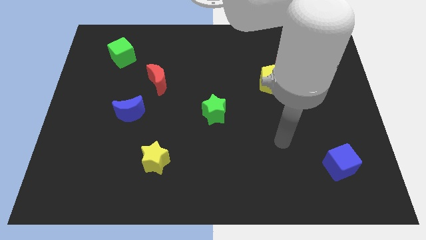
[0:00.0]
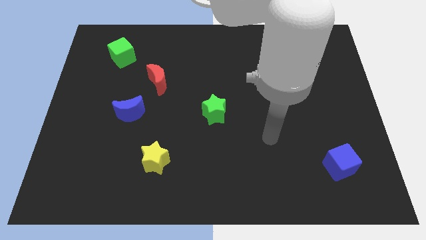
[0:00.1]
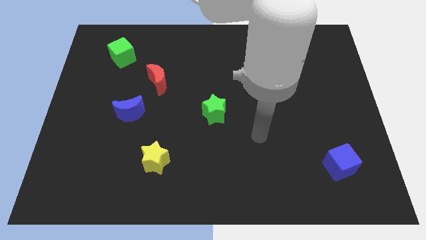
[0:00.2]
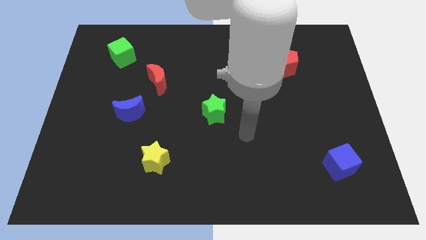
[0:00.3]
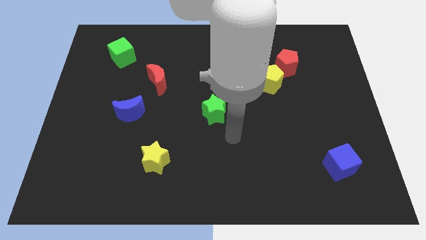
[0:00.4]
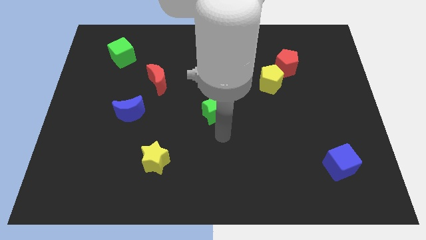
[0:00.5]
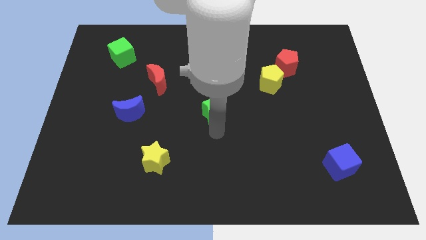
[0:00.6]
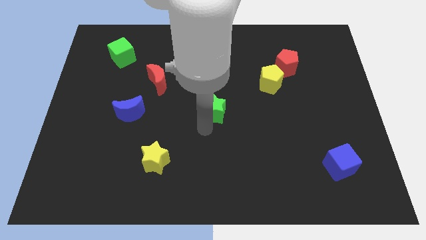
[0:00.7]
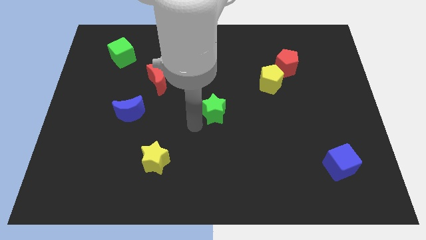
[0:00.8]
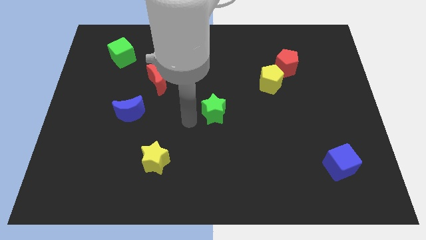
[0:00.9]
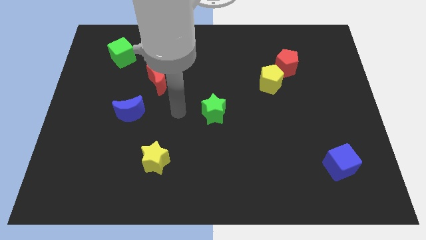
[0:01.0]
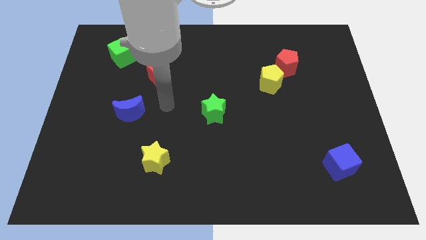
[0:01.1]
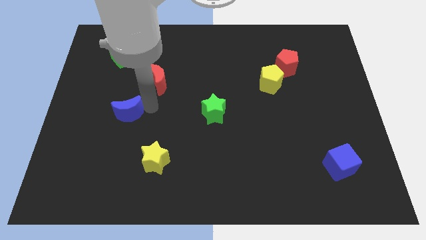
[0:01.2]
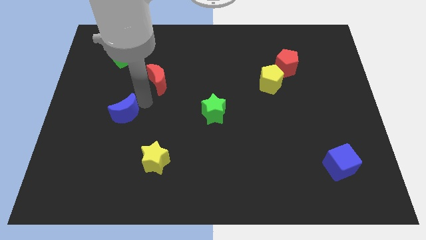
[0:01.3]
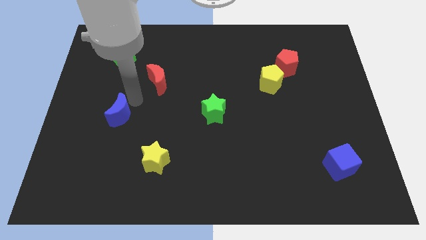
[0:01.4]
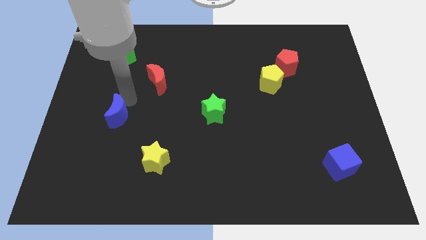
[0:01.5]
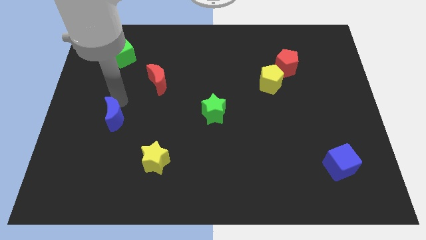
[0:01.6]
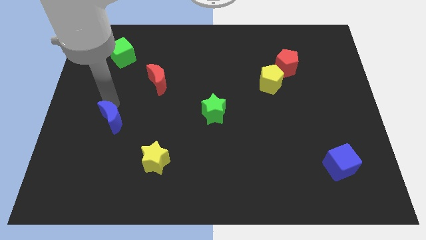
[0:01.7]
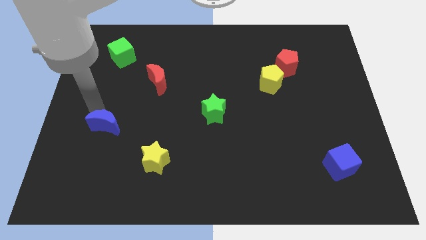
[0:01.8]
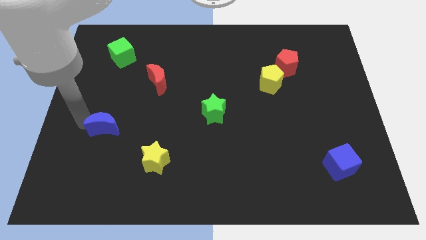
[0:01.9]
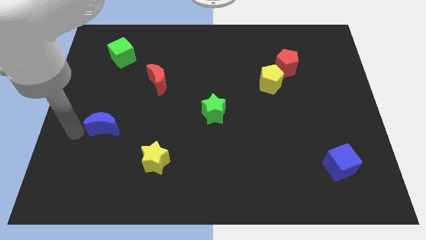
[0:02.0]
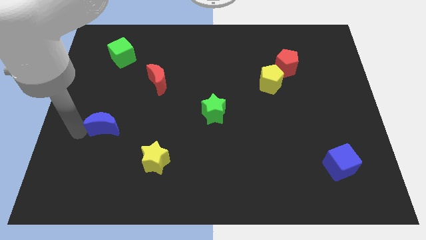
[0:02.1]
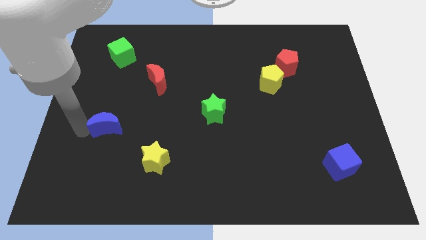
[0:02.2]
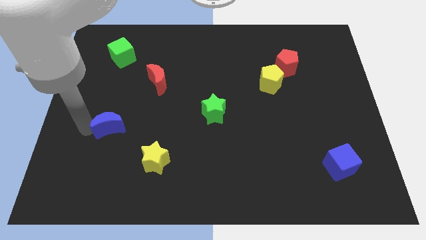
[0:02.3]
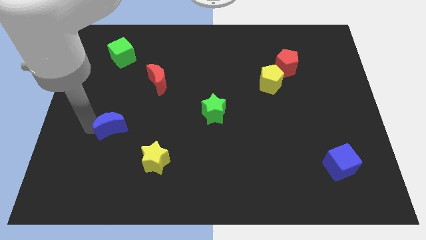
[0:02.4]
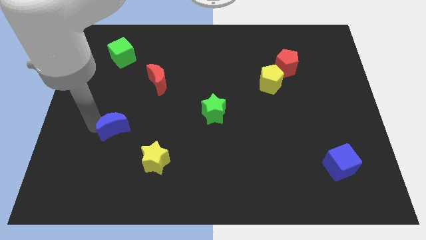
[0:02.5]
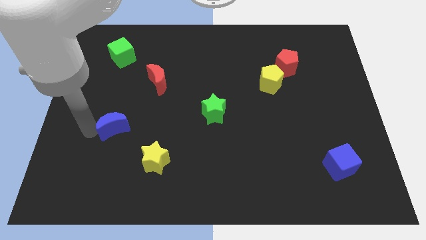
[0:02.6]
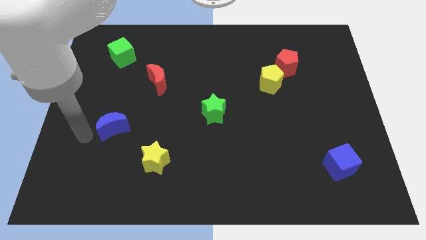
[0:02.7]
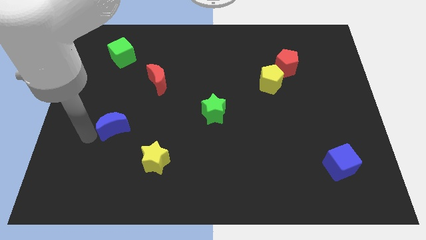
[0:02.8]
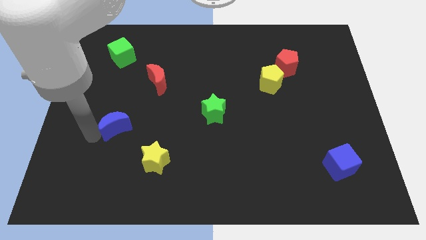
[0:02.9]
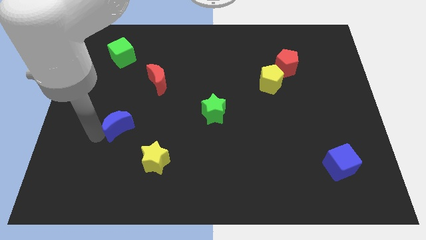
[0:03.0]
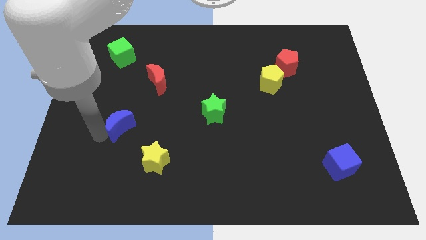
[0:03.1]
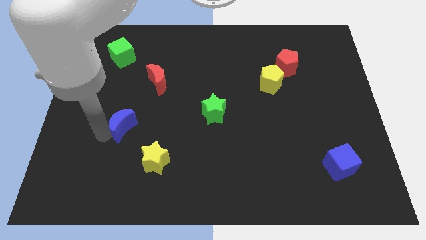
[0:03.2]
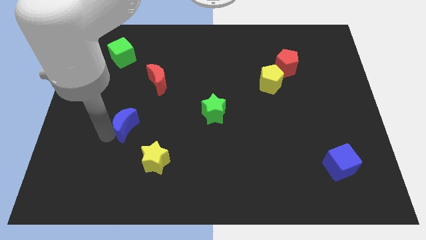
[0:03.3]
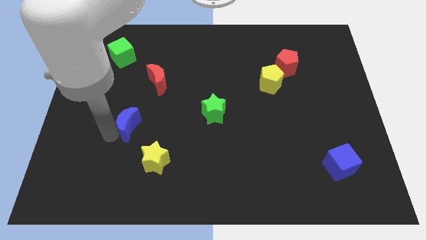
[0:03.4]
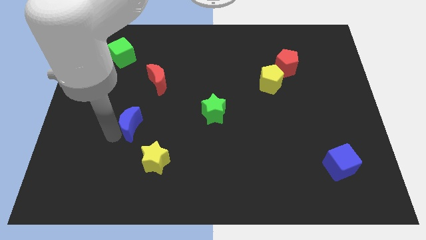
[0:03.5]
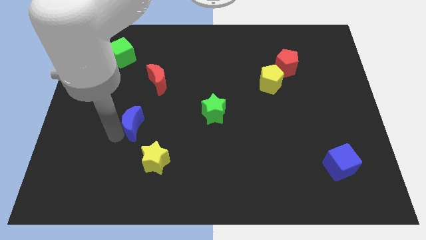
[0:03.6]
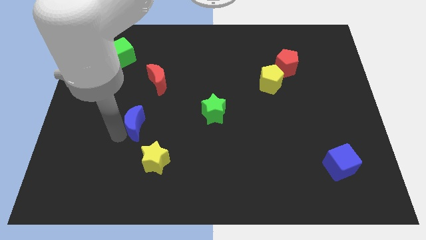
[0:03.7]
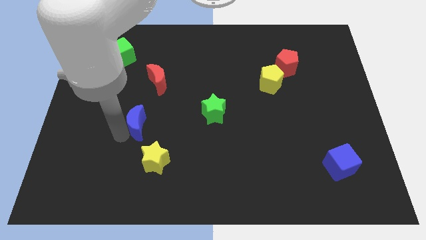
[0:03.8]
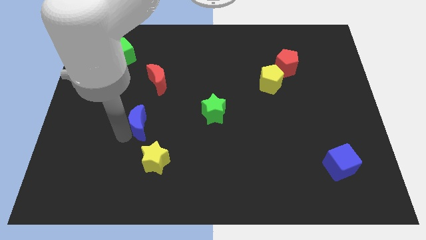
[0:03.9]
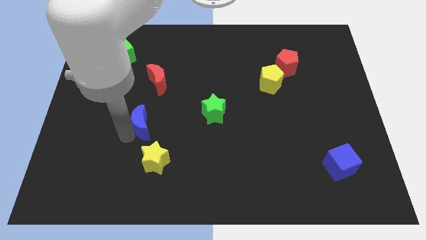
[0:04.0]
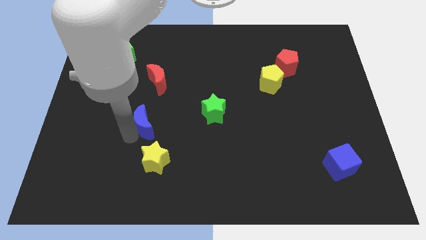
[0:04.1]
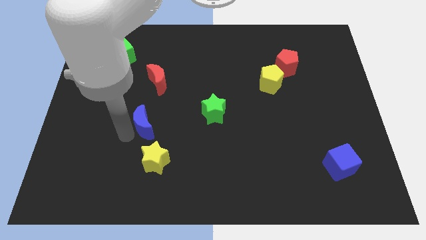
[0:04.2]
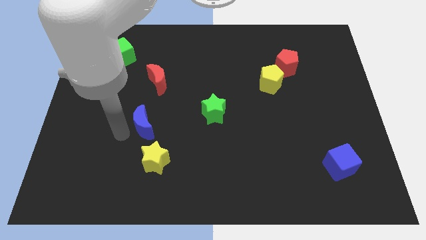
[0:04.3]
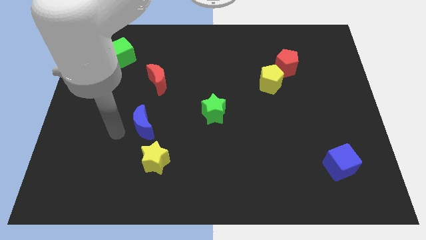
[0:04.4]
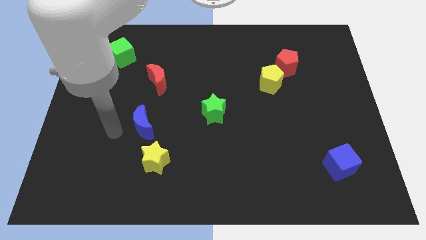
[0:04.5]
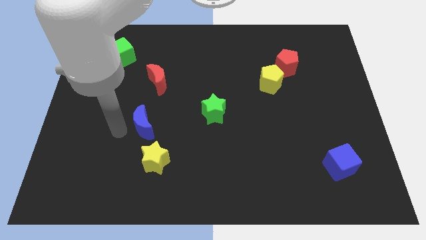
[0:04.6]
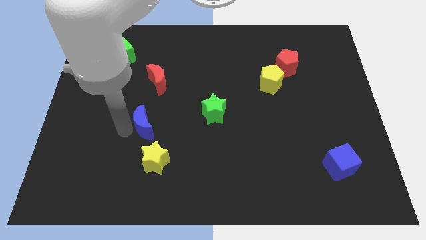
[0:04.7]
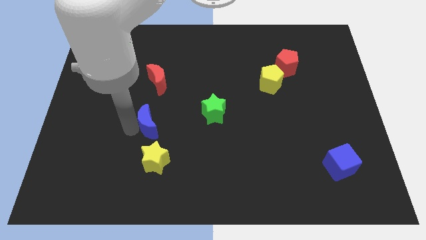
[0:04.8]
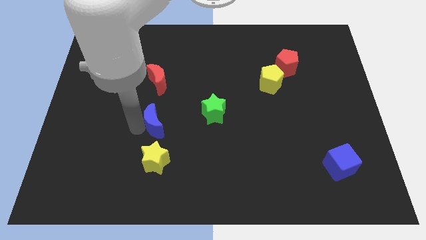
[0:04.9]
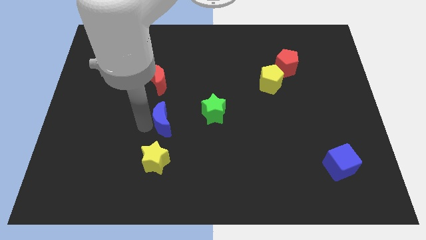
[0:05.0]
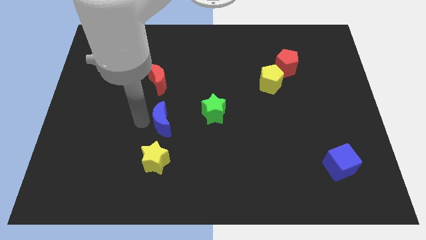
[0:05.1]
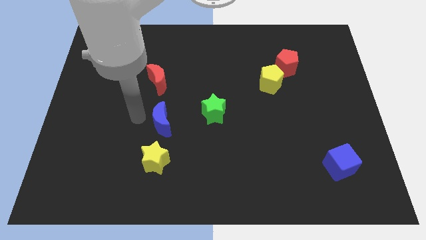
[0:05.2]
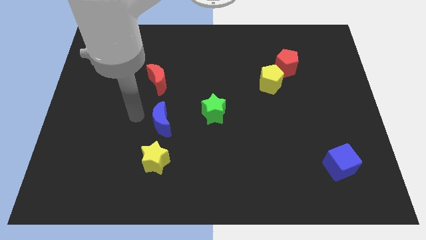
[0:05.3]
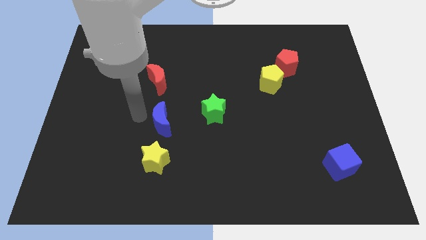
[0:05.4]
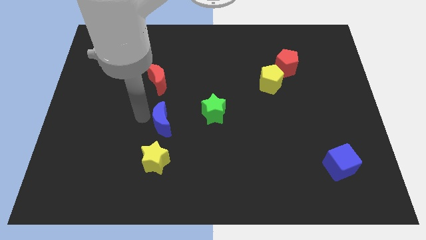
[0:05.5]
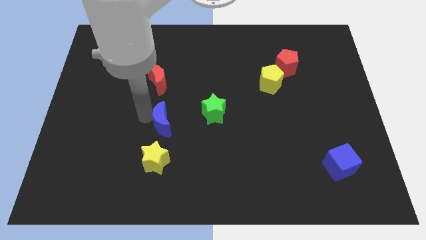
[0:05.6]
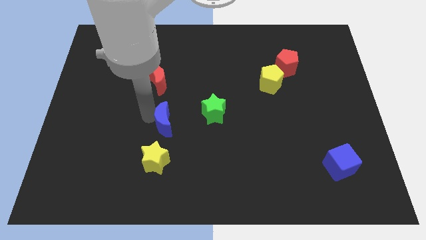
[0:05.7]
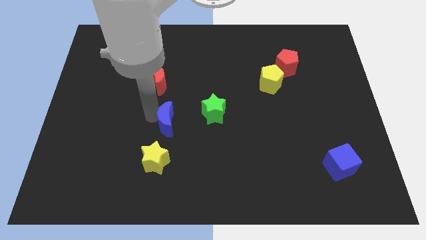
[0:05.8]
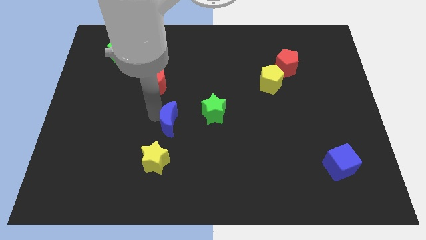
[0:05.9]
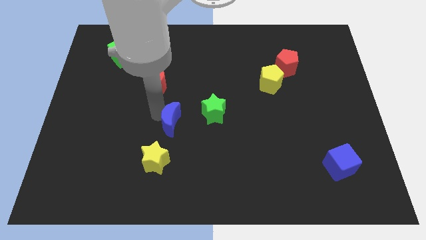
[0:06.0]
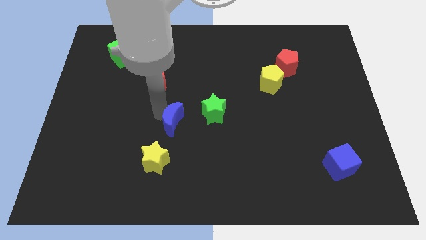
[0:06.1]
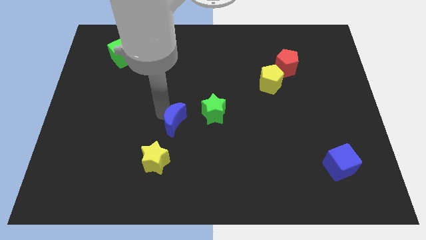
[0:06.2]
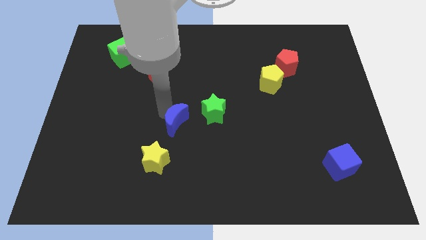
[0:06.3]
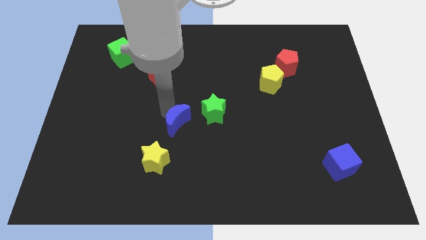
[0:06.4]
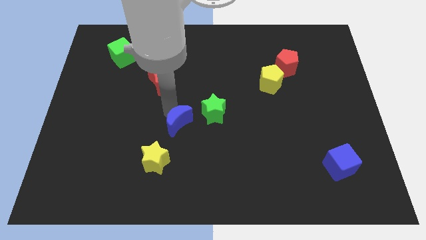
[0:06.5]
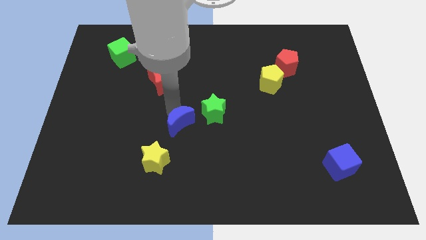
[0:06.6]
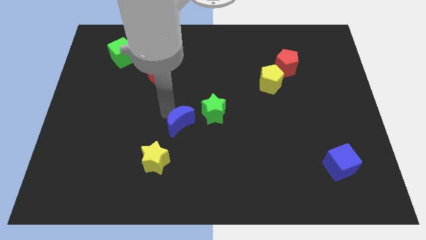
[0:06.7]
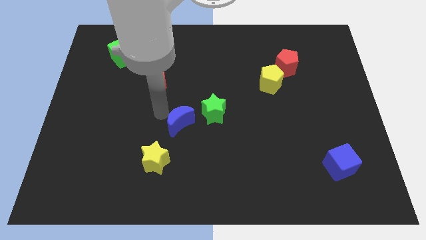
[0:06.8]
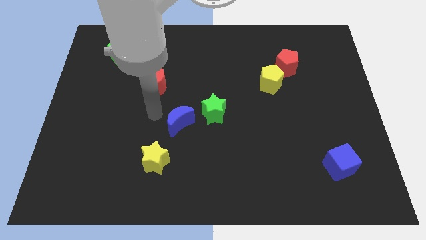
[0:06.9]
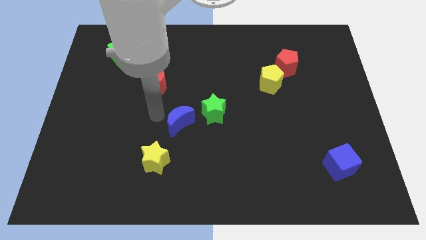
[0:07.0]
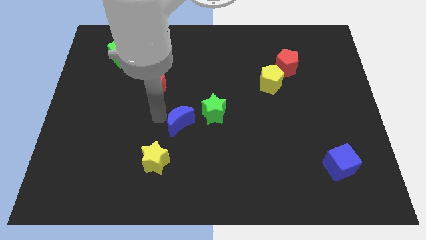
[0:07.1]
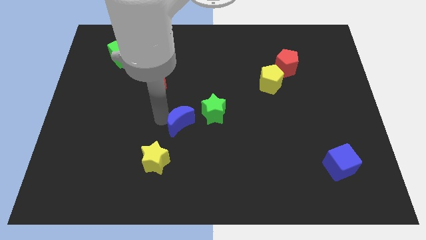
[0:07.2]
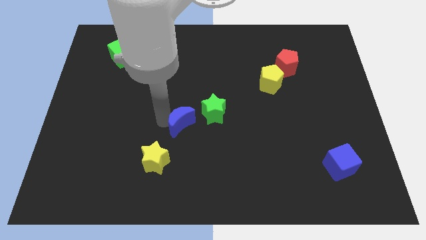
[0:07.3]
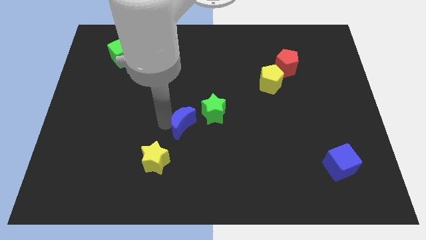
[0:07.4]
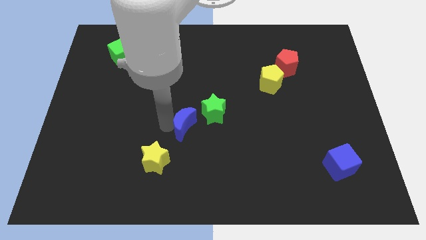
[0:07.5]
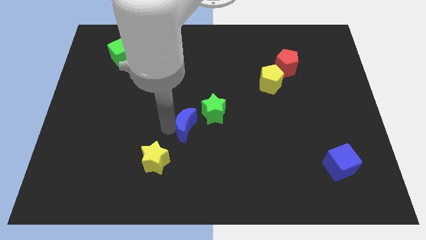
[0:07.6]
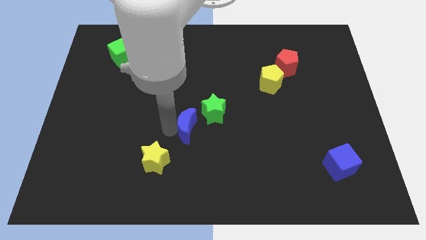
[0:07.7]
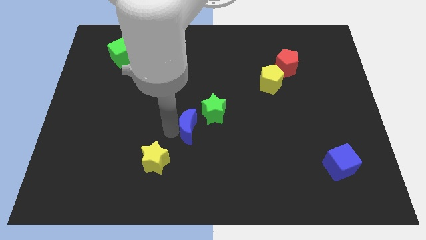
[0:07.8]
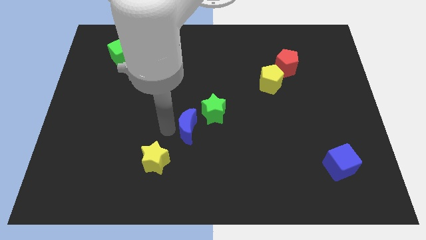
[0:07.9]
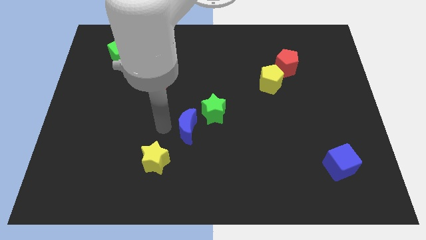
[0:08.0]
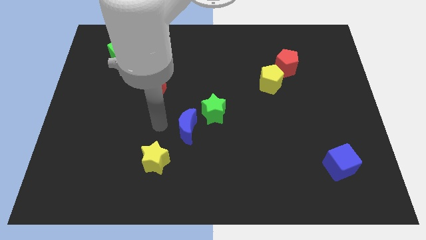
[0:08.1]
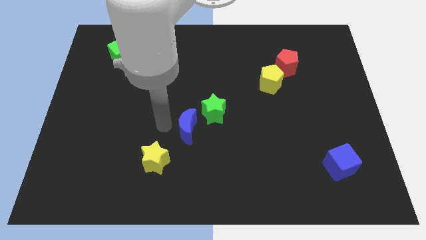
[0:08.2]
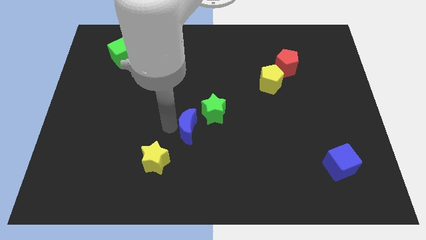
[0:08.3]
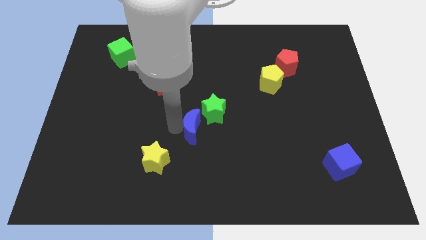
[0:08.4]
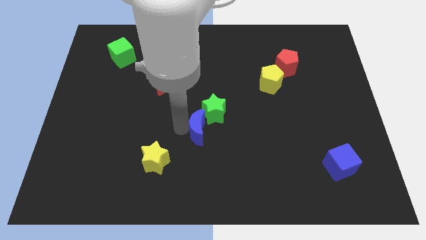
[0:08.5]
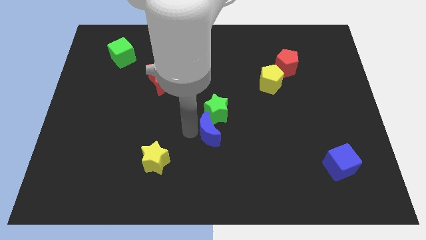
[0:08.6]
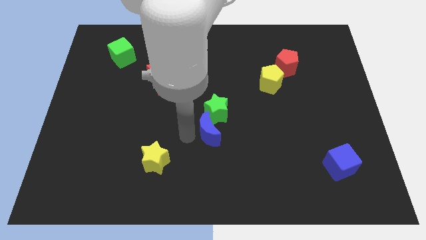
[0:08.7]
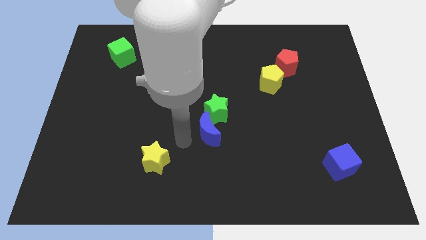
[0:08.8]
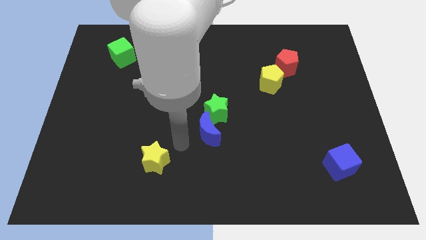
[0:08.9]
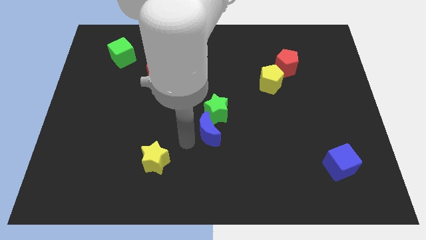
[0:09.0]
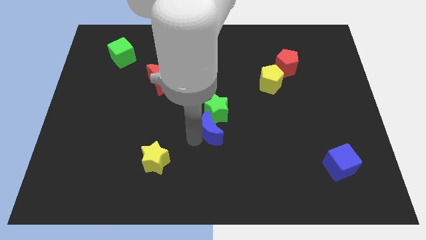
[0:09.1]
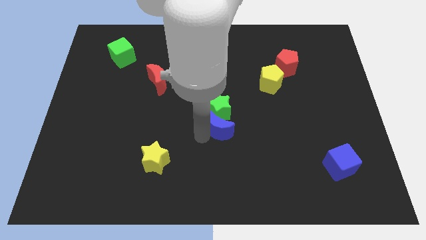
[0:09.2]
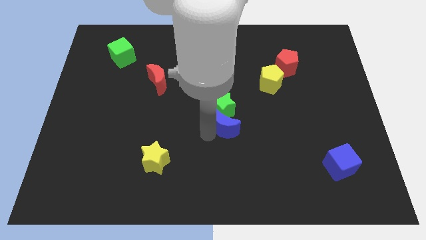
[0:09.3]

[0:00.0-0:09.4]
move the blue moon to the right
